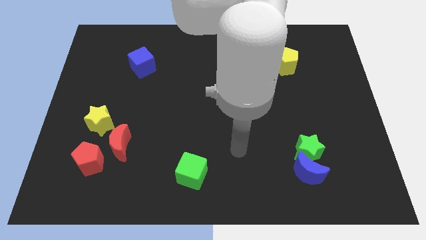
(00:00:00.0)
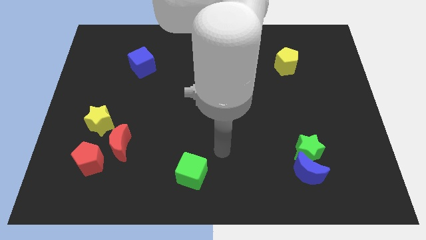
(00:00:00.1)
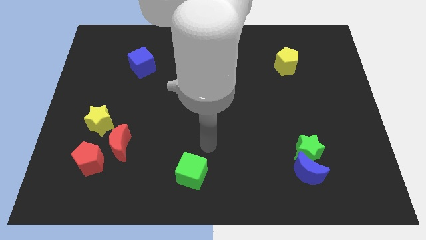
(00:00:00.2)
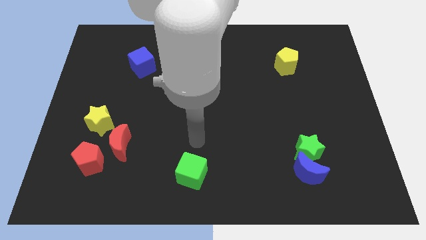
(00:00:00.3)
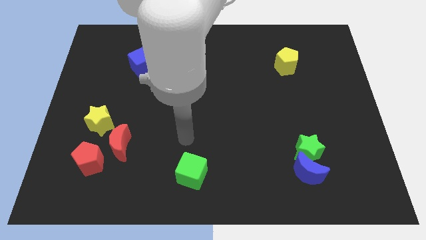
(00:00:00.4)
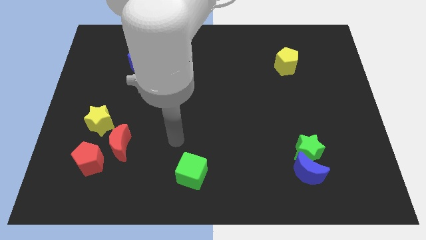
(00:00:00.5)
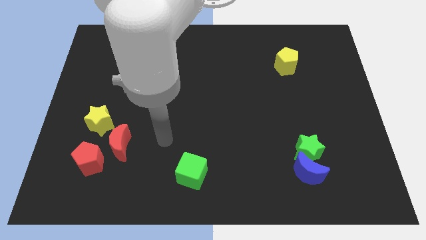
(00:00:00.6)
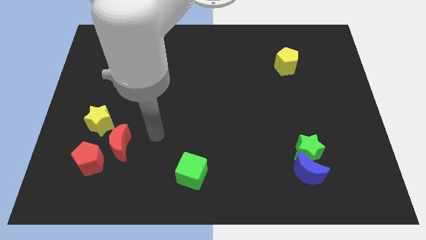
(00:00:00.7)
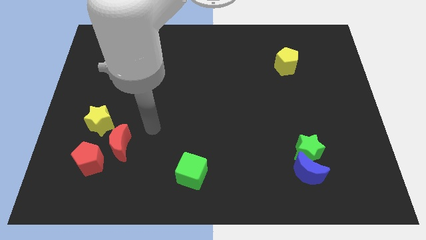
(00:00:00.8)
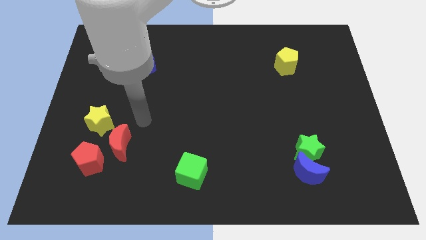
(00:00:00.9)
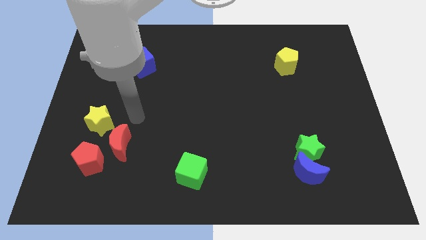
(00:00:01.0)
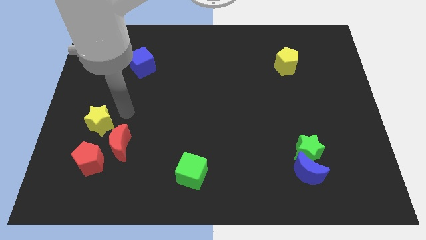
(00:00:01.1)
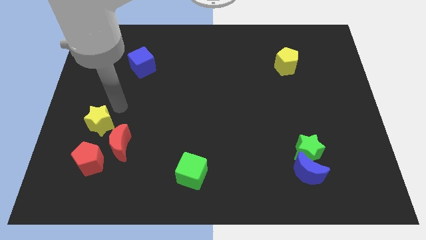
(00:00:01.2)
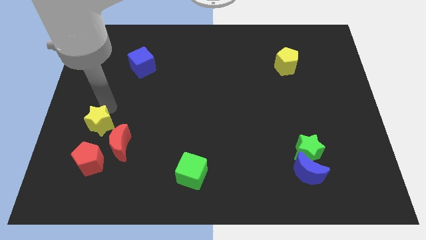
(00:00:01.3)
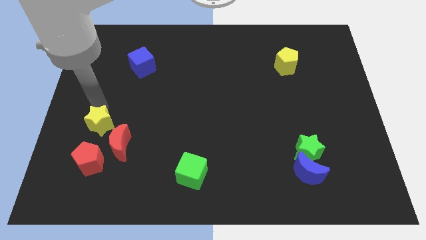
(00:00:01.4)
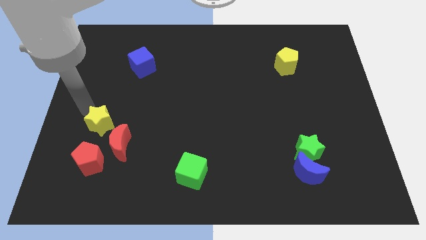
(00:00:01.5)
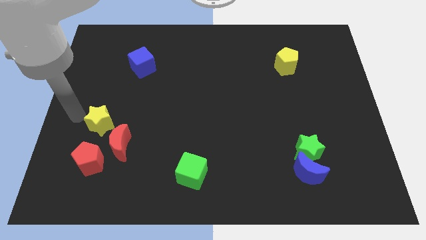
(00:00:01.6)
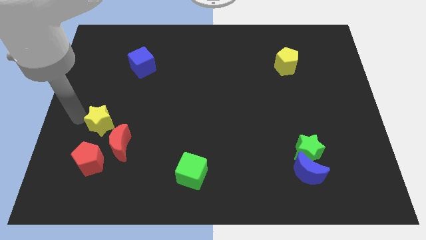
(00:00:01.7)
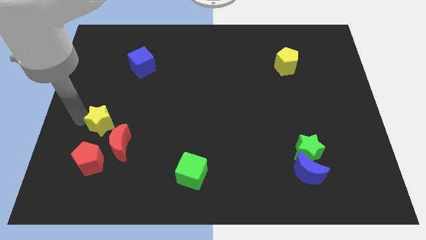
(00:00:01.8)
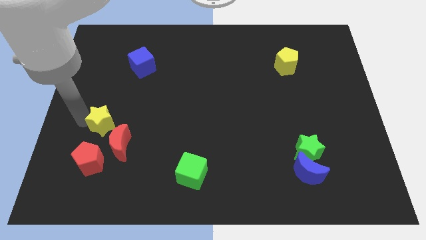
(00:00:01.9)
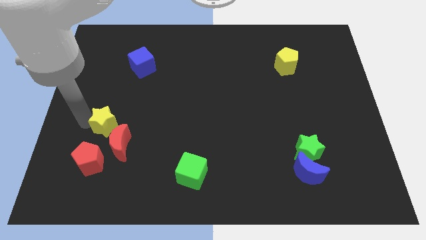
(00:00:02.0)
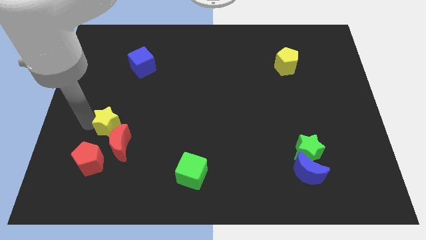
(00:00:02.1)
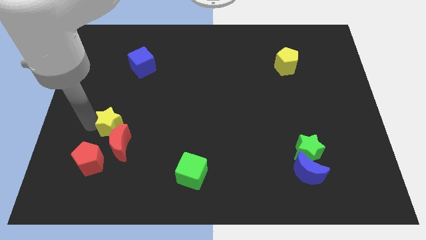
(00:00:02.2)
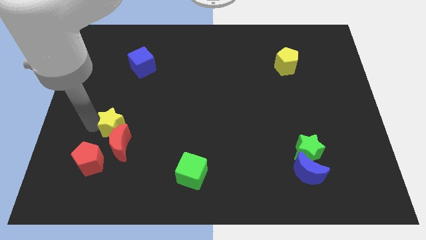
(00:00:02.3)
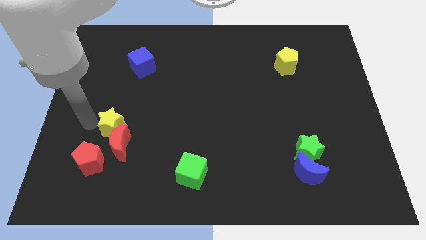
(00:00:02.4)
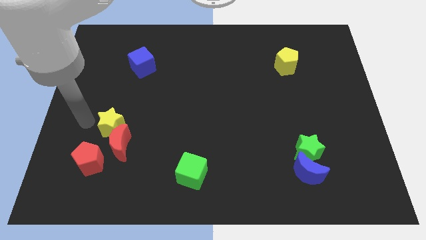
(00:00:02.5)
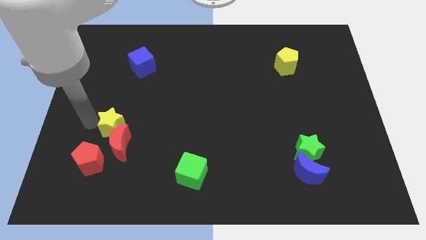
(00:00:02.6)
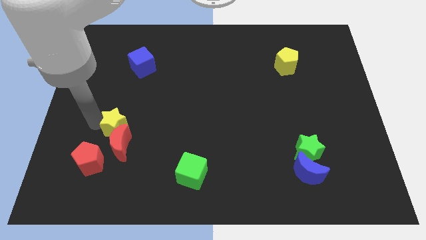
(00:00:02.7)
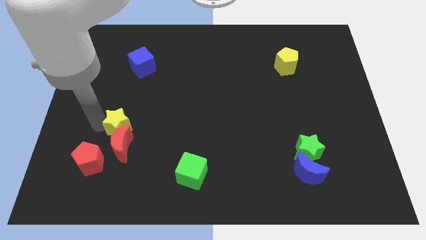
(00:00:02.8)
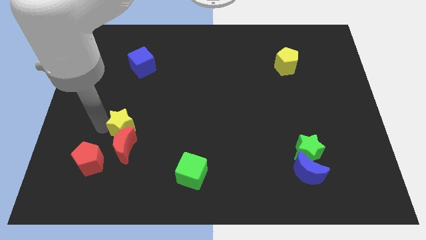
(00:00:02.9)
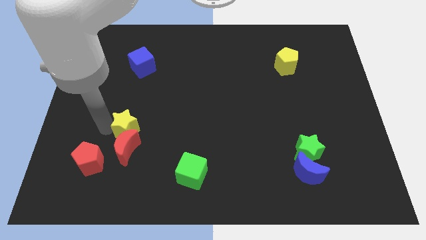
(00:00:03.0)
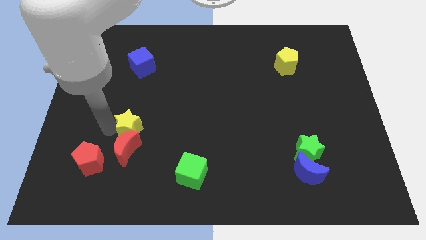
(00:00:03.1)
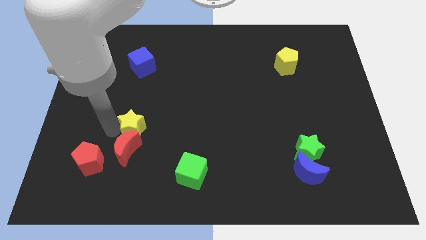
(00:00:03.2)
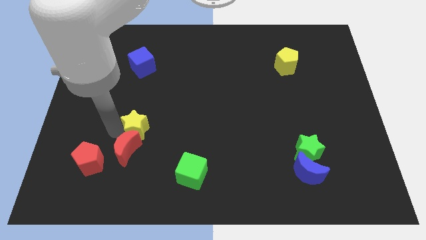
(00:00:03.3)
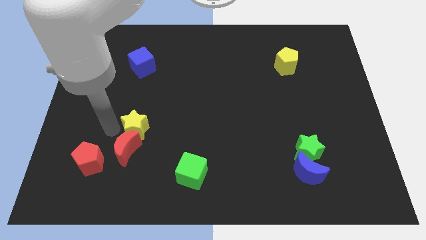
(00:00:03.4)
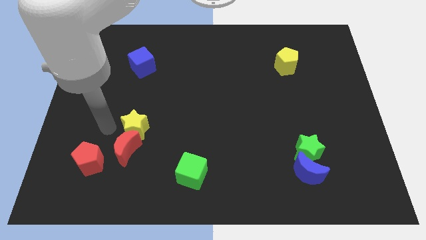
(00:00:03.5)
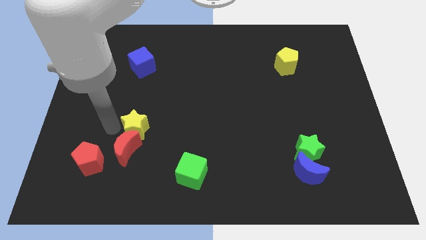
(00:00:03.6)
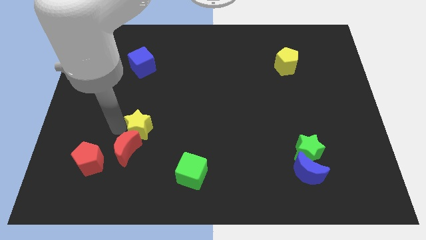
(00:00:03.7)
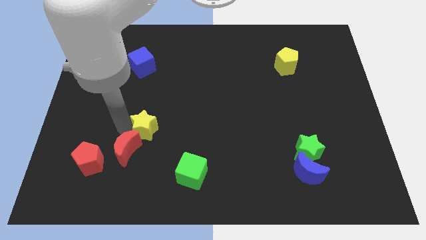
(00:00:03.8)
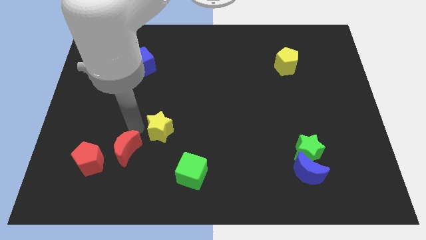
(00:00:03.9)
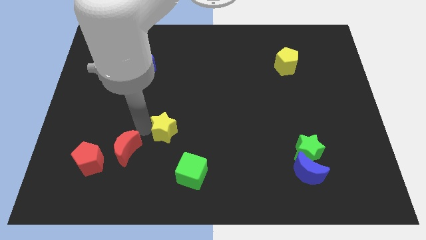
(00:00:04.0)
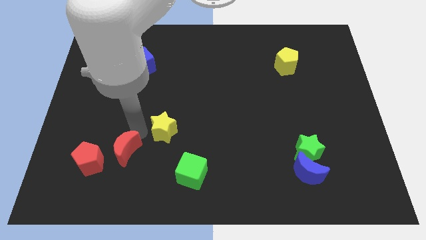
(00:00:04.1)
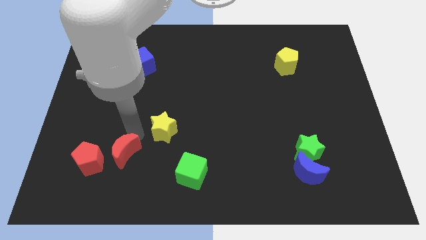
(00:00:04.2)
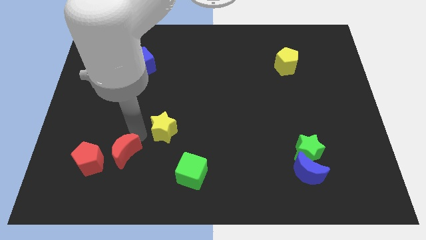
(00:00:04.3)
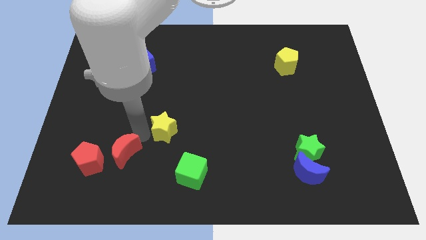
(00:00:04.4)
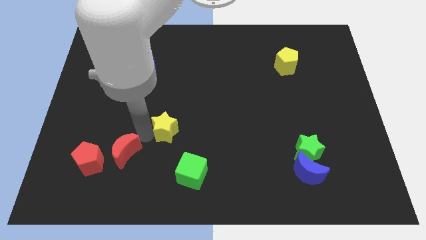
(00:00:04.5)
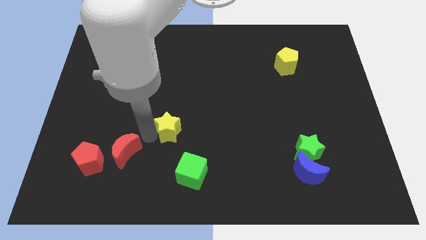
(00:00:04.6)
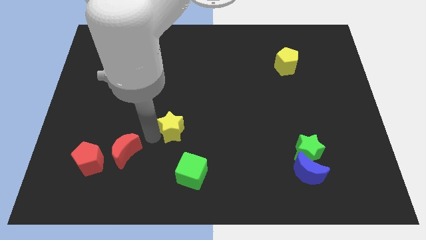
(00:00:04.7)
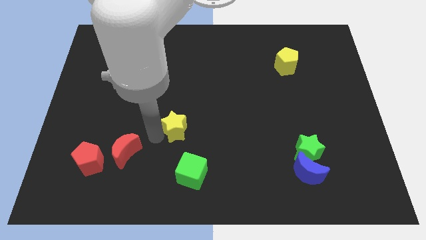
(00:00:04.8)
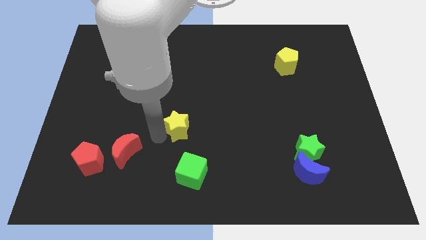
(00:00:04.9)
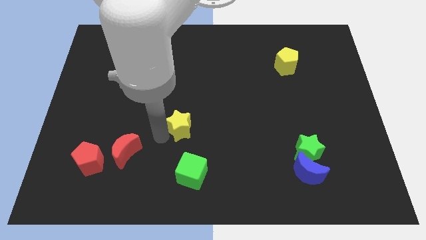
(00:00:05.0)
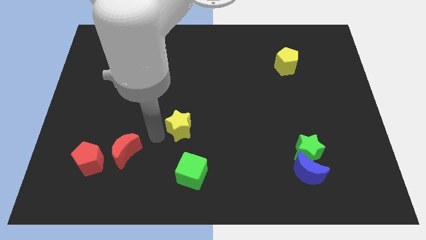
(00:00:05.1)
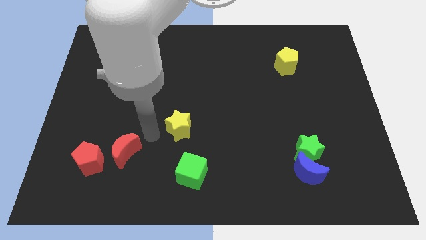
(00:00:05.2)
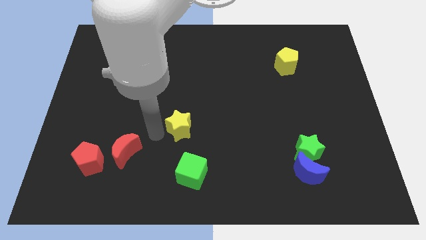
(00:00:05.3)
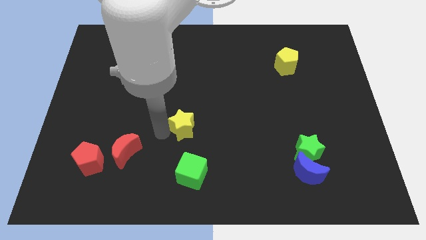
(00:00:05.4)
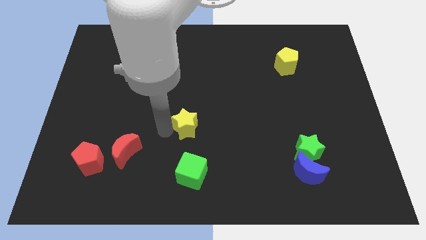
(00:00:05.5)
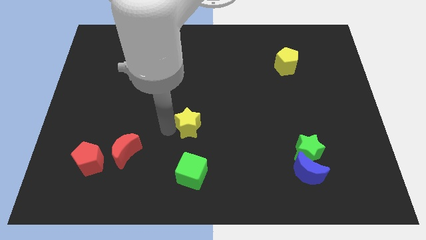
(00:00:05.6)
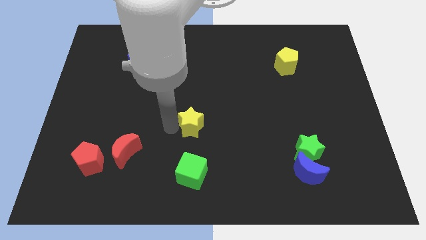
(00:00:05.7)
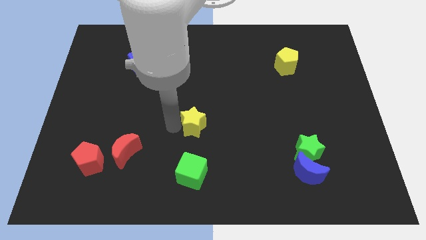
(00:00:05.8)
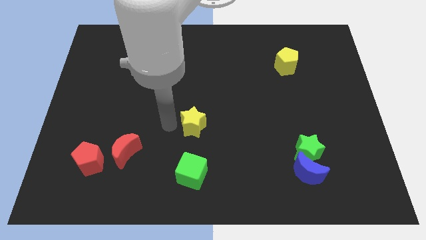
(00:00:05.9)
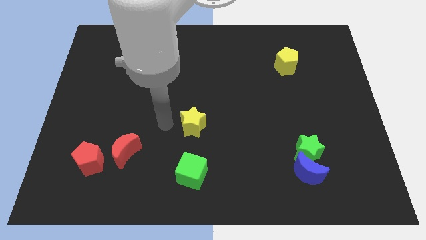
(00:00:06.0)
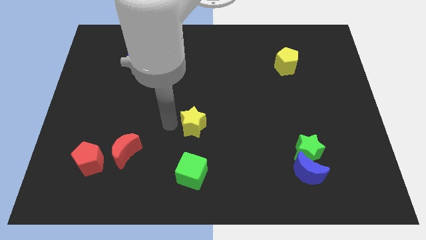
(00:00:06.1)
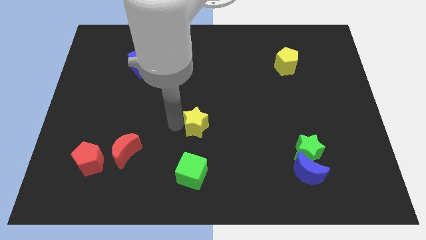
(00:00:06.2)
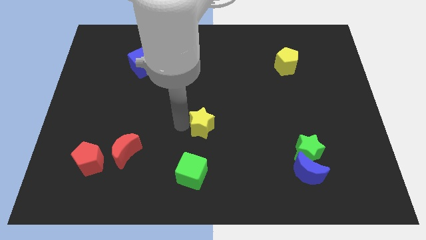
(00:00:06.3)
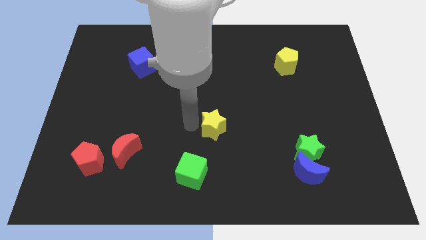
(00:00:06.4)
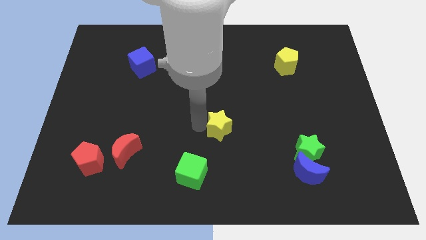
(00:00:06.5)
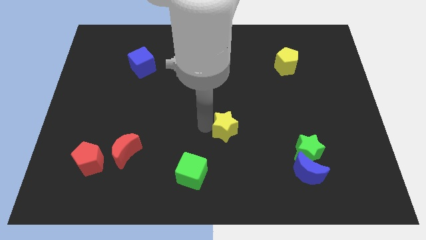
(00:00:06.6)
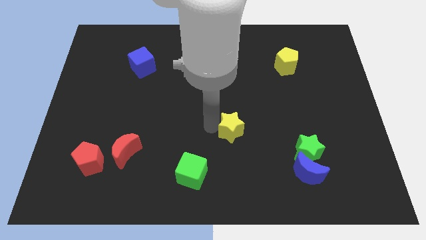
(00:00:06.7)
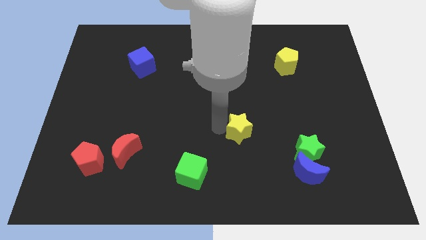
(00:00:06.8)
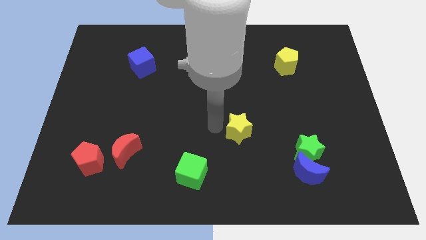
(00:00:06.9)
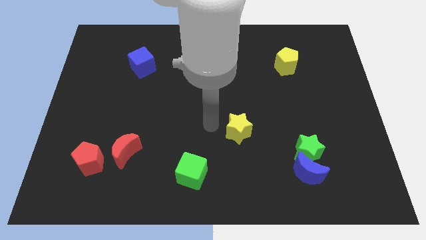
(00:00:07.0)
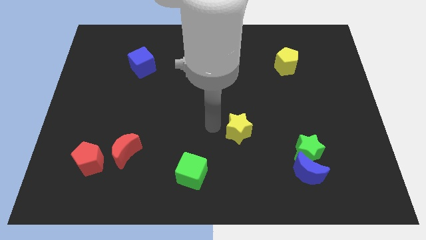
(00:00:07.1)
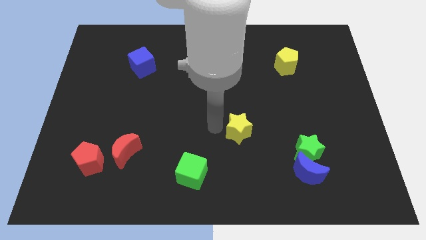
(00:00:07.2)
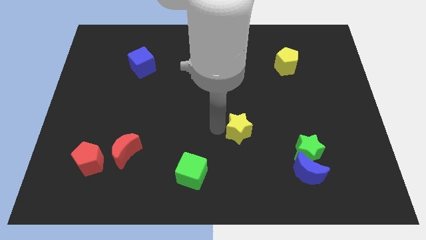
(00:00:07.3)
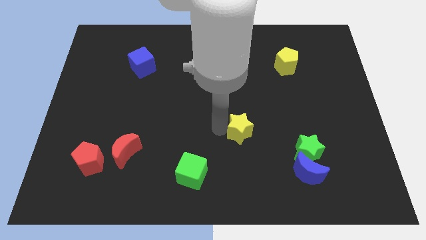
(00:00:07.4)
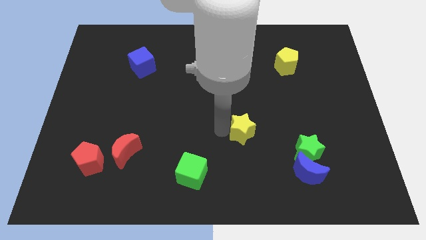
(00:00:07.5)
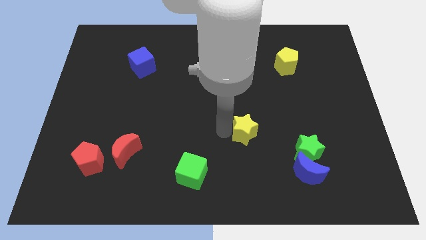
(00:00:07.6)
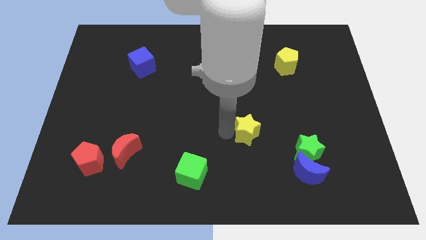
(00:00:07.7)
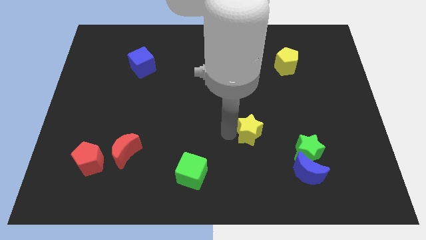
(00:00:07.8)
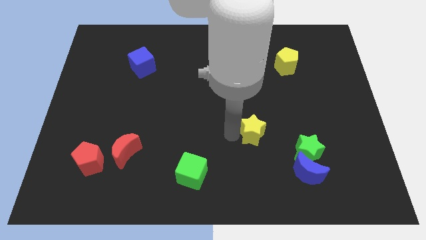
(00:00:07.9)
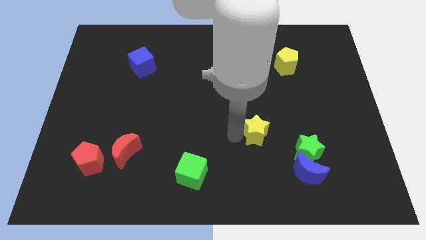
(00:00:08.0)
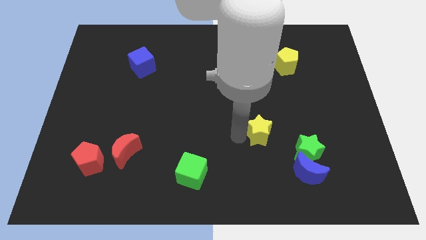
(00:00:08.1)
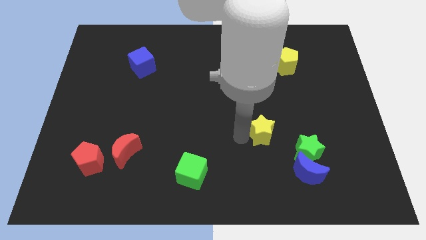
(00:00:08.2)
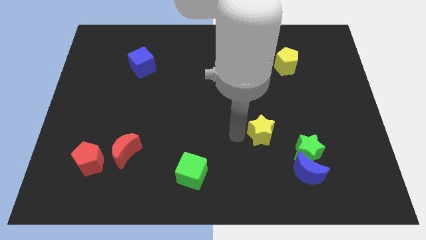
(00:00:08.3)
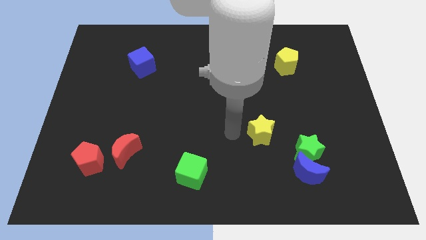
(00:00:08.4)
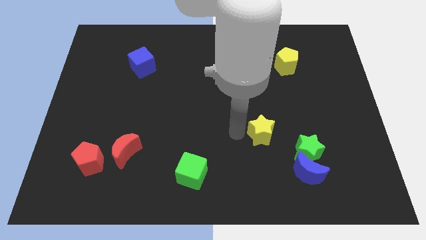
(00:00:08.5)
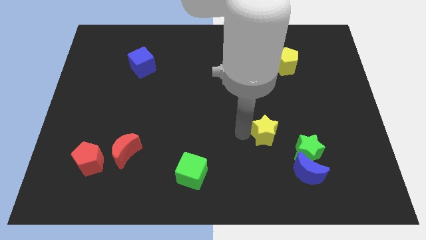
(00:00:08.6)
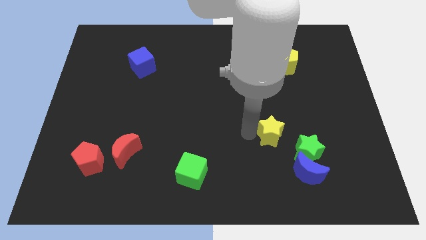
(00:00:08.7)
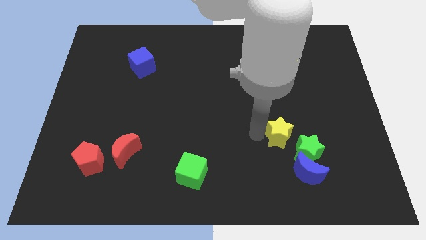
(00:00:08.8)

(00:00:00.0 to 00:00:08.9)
move the yellow star above the blue moon
